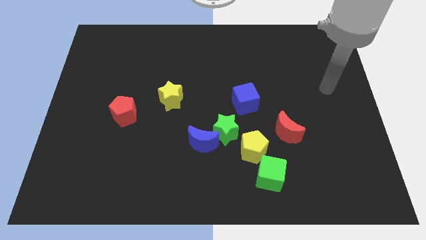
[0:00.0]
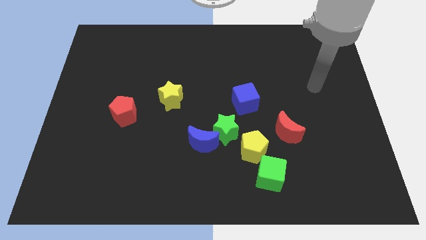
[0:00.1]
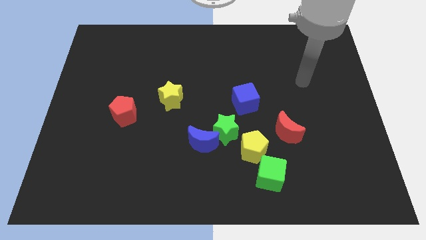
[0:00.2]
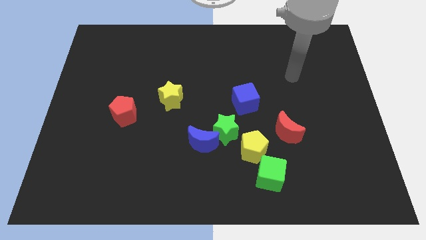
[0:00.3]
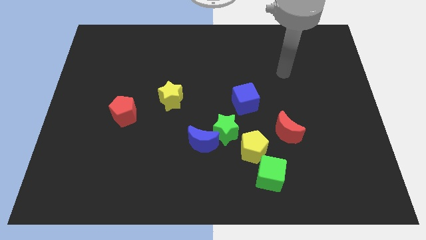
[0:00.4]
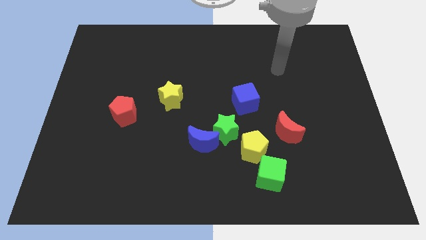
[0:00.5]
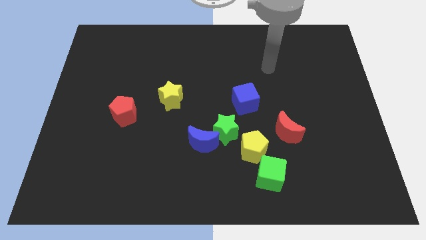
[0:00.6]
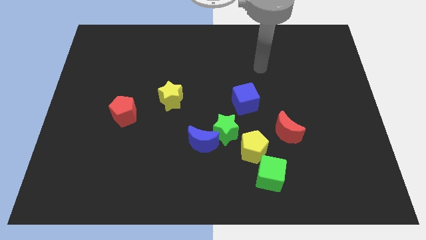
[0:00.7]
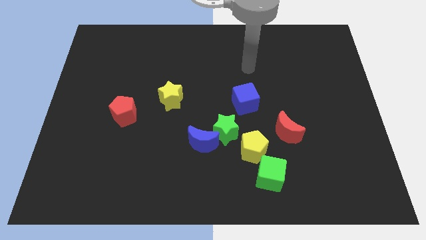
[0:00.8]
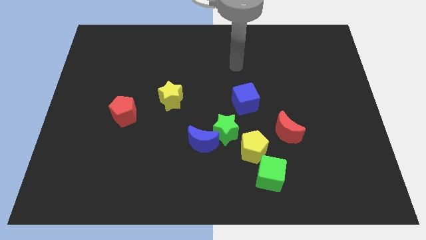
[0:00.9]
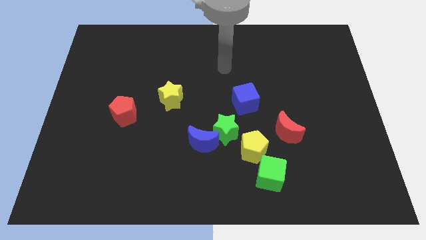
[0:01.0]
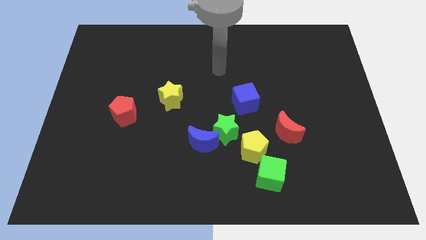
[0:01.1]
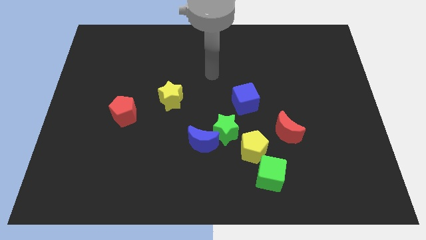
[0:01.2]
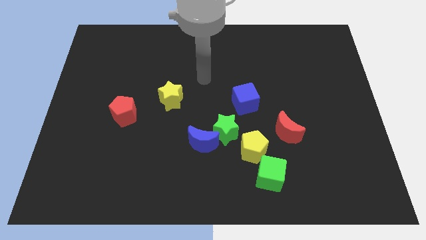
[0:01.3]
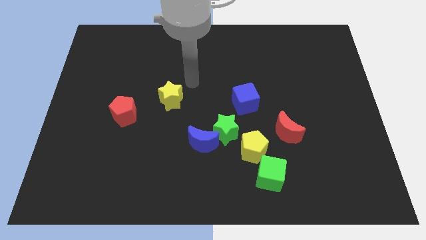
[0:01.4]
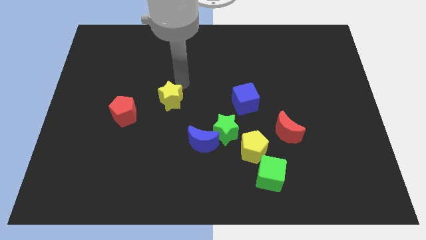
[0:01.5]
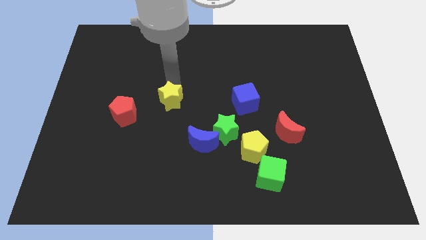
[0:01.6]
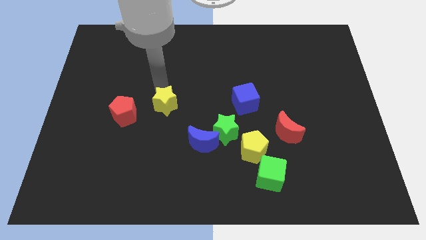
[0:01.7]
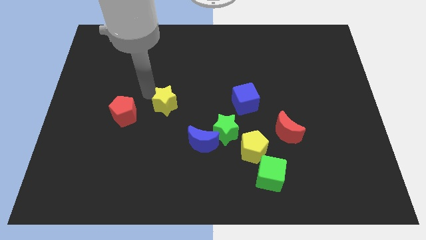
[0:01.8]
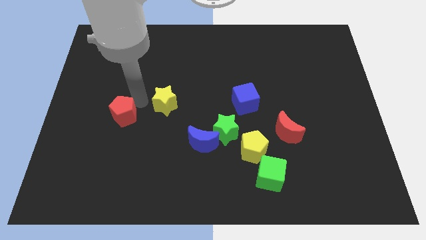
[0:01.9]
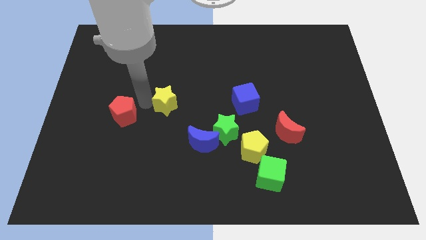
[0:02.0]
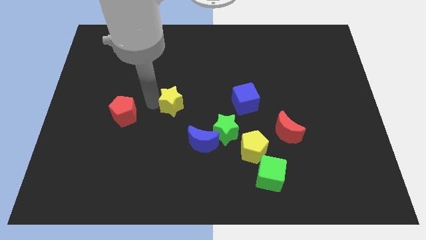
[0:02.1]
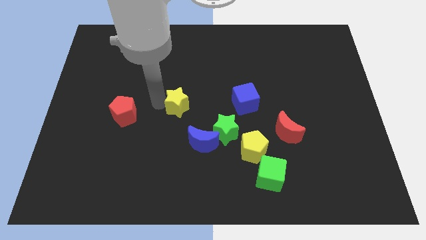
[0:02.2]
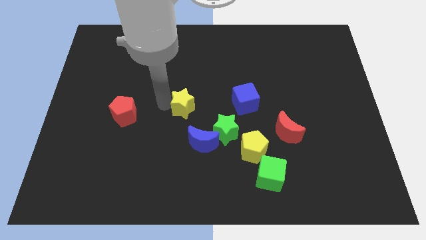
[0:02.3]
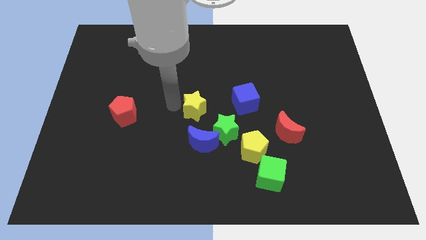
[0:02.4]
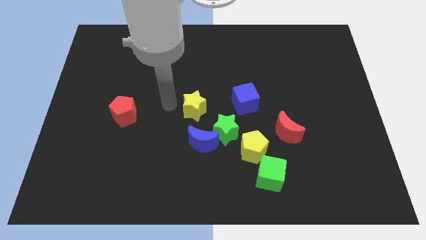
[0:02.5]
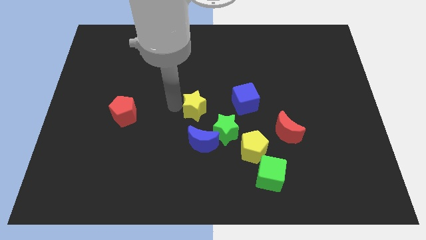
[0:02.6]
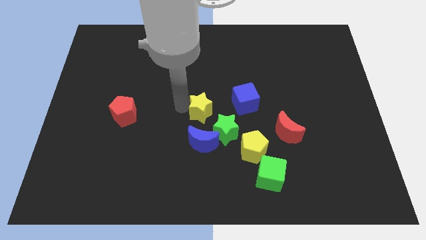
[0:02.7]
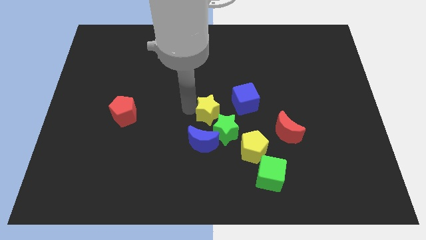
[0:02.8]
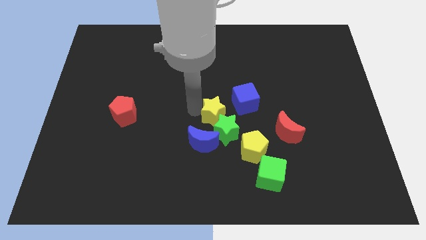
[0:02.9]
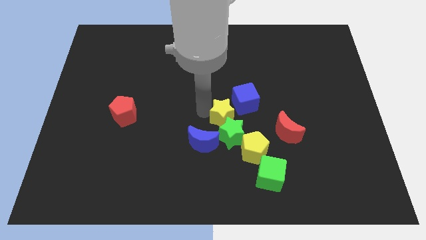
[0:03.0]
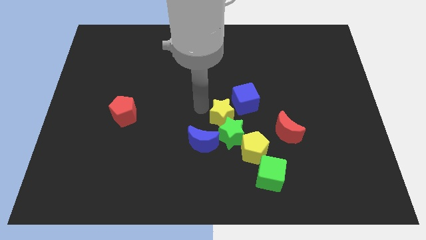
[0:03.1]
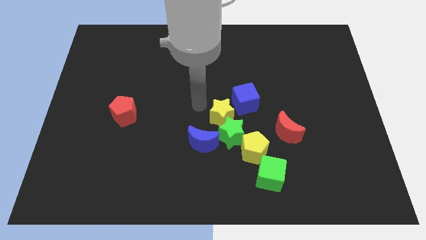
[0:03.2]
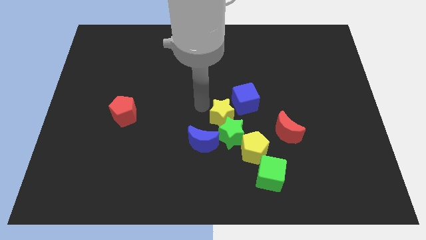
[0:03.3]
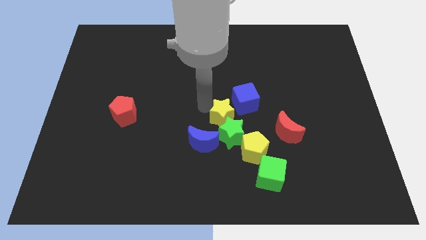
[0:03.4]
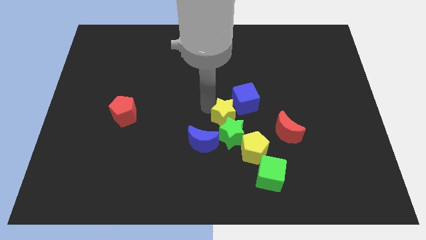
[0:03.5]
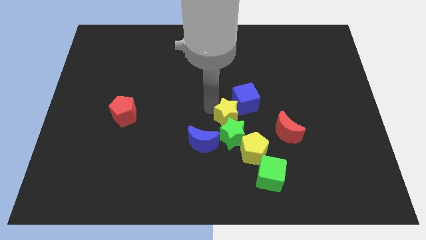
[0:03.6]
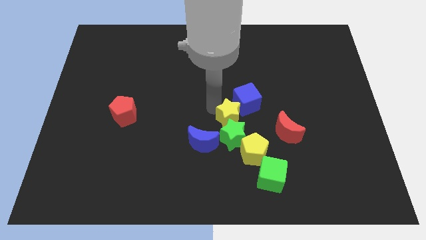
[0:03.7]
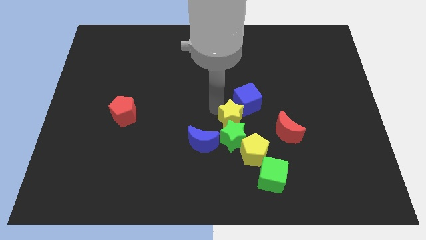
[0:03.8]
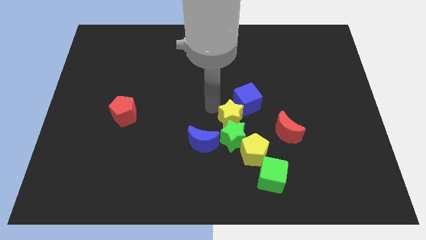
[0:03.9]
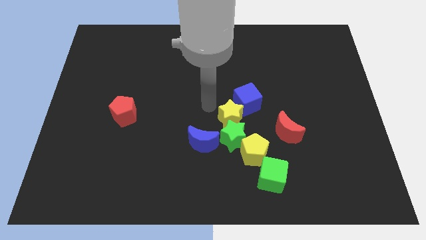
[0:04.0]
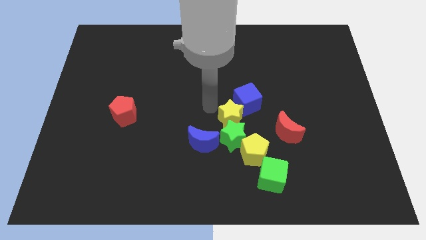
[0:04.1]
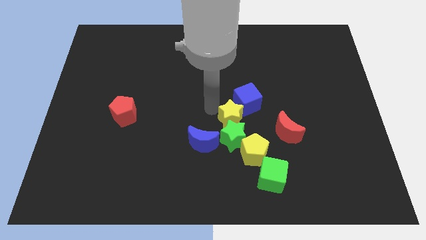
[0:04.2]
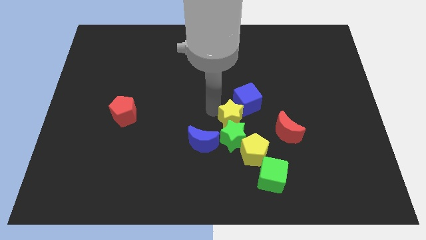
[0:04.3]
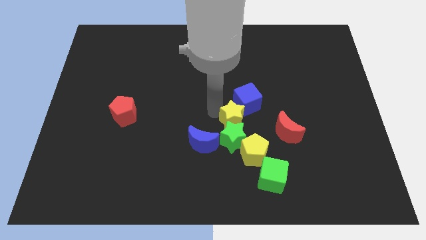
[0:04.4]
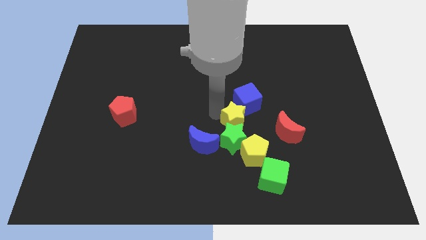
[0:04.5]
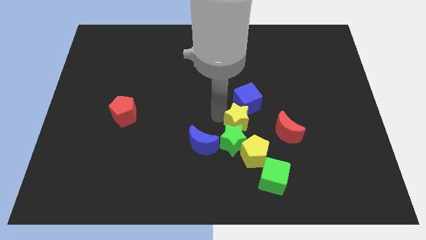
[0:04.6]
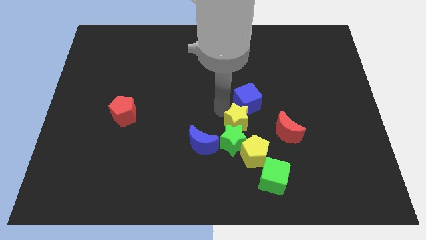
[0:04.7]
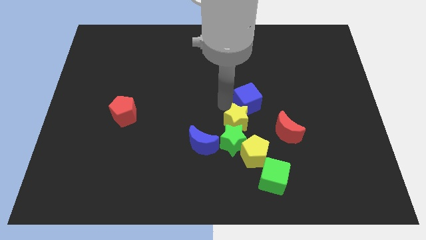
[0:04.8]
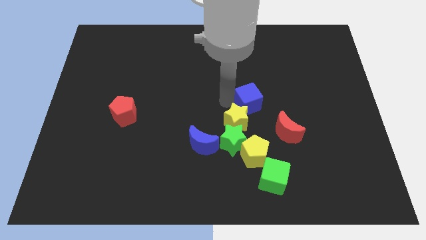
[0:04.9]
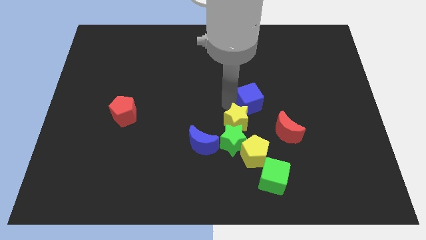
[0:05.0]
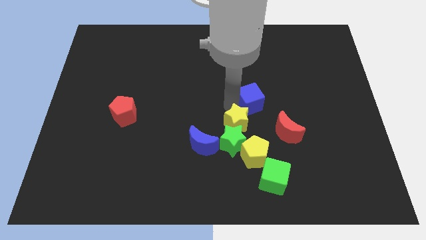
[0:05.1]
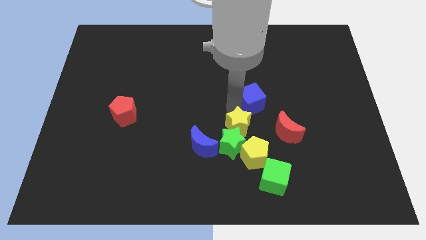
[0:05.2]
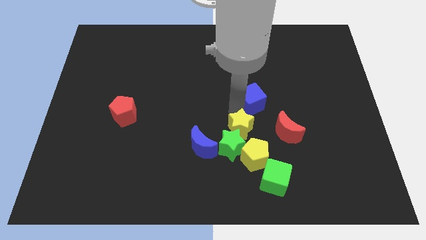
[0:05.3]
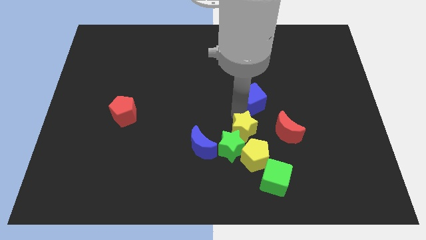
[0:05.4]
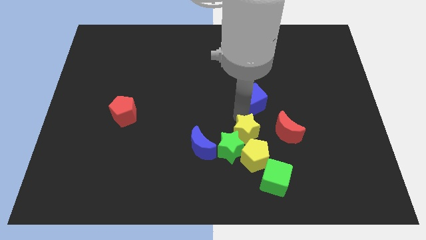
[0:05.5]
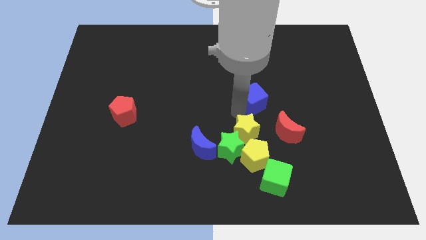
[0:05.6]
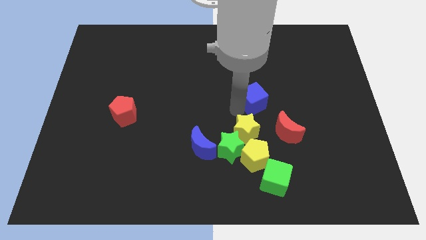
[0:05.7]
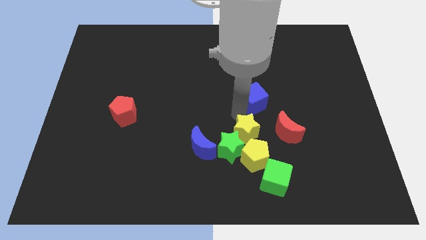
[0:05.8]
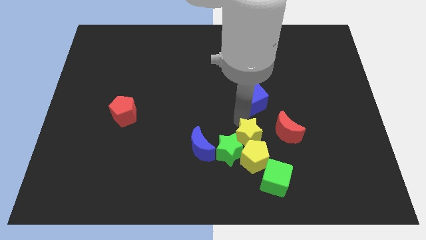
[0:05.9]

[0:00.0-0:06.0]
push the yellow star towards the yellow pentagon
